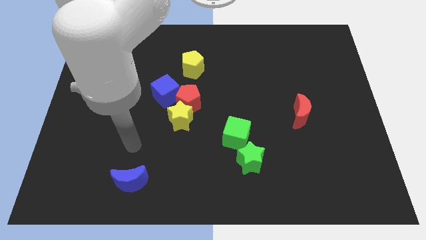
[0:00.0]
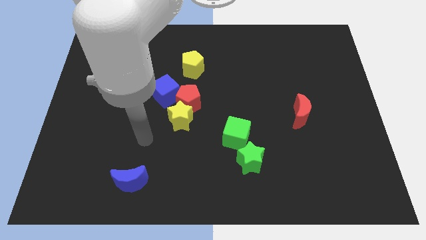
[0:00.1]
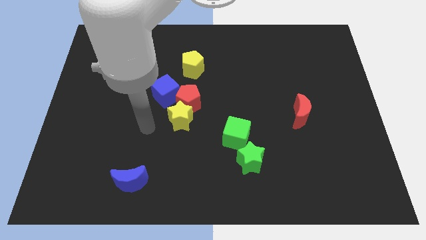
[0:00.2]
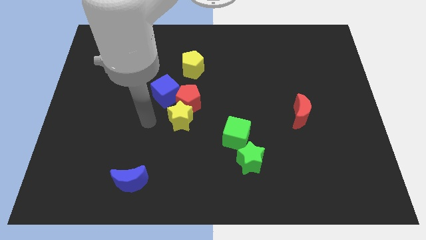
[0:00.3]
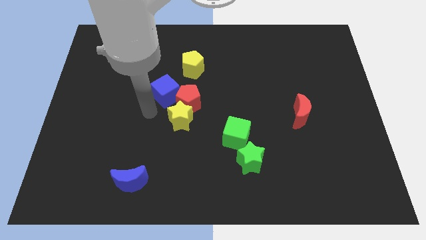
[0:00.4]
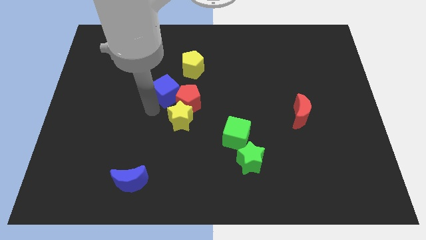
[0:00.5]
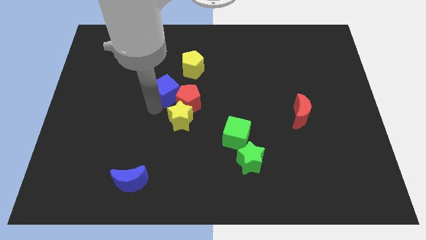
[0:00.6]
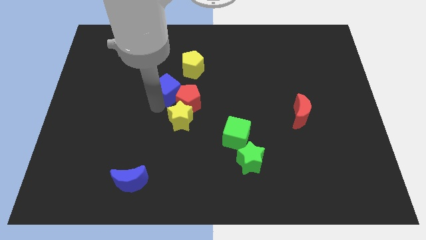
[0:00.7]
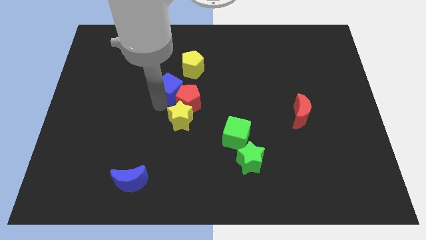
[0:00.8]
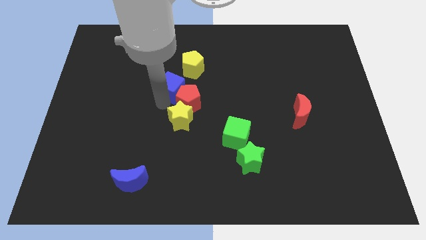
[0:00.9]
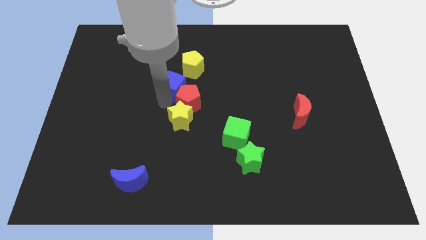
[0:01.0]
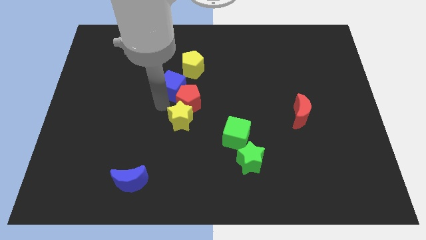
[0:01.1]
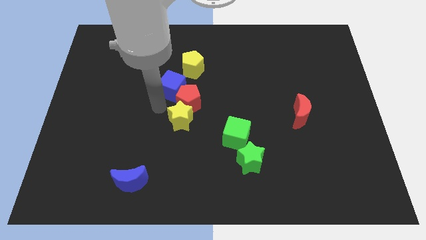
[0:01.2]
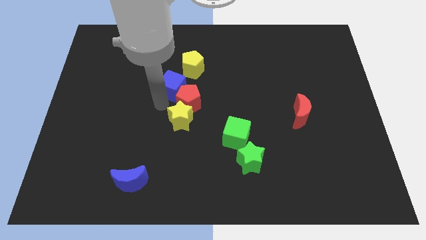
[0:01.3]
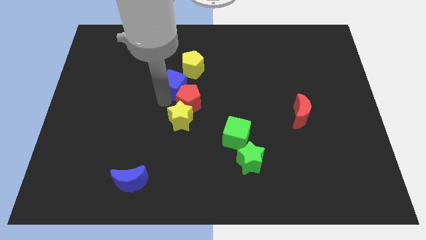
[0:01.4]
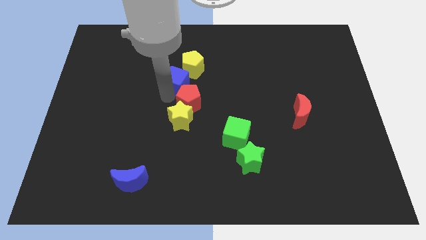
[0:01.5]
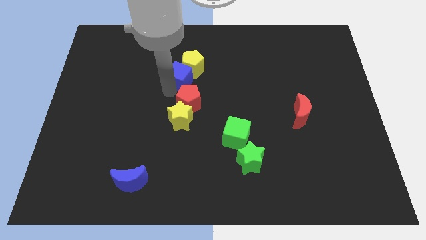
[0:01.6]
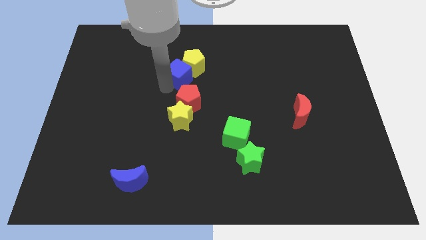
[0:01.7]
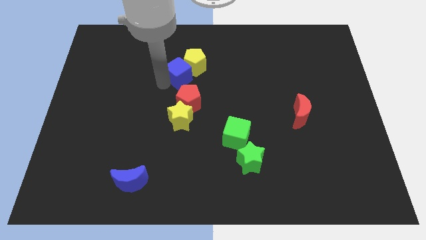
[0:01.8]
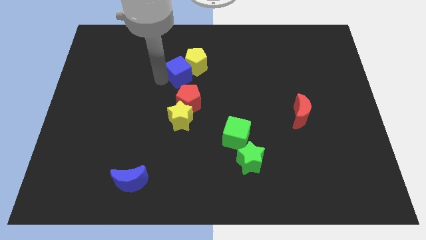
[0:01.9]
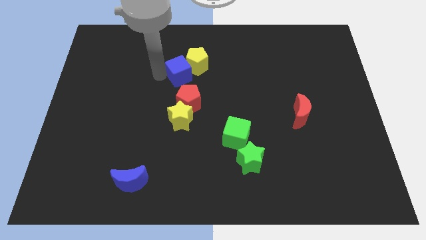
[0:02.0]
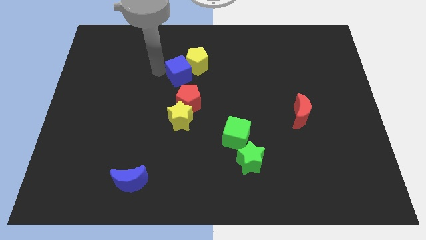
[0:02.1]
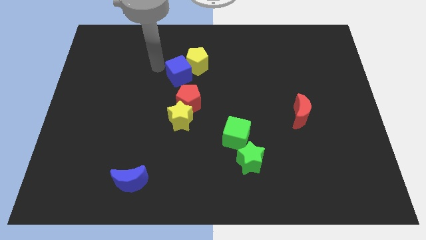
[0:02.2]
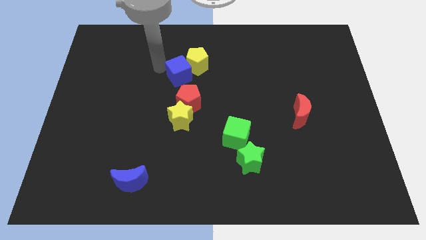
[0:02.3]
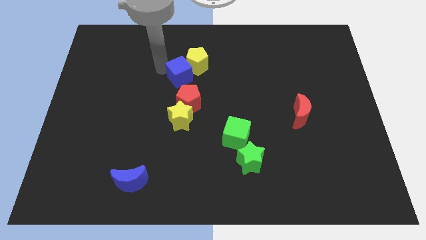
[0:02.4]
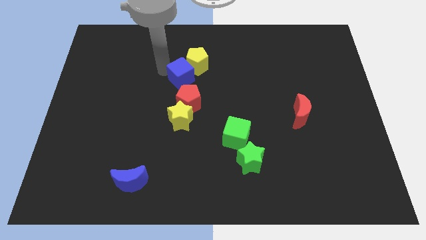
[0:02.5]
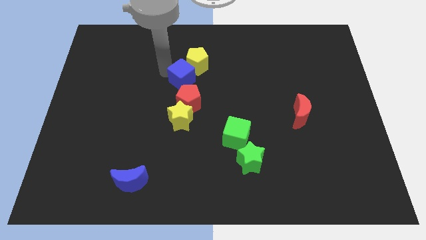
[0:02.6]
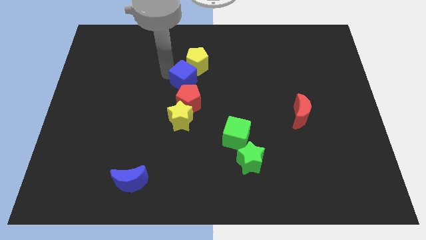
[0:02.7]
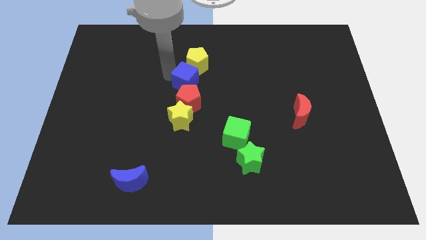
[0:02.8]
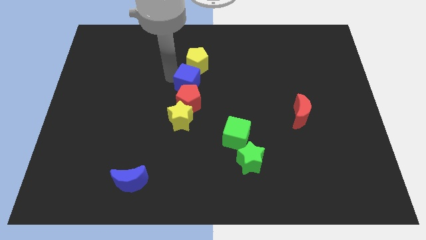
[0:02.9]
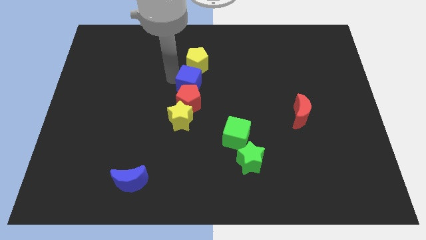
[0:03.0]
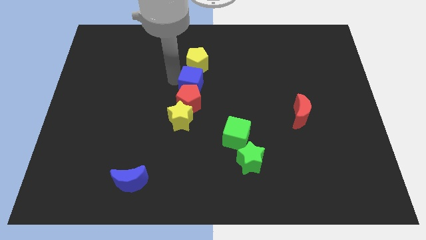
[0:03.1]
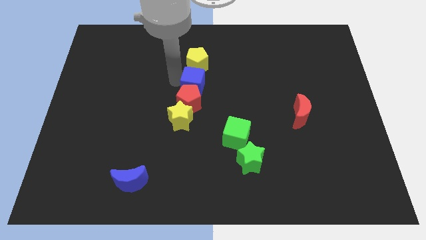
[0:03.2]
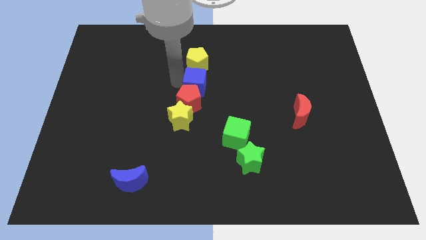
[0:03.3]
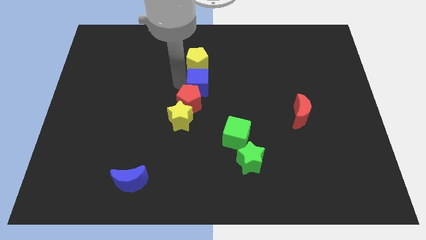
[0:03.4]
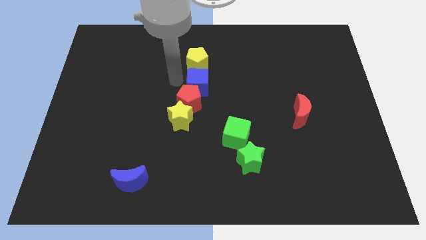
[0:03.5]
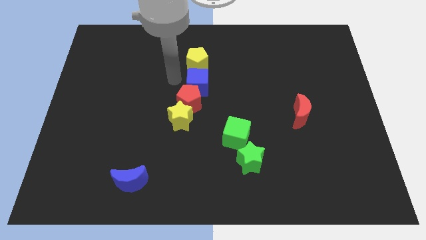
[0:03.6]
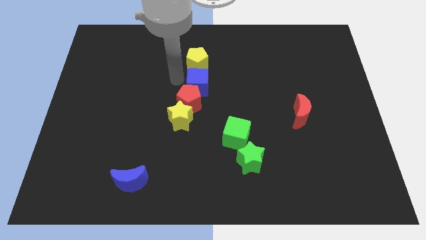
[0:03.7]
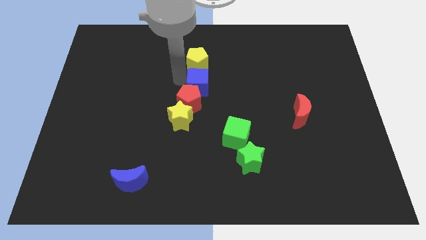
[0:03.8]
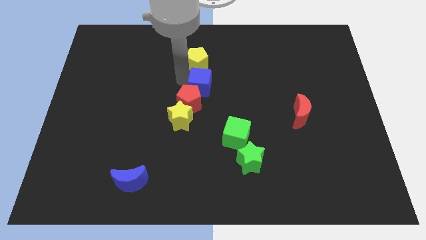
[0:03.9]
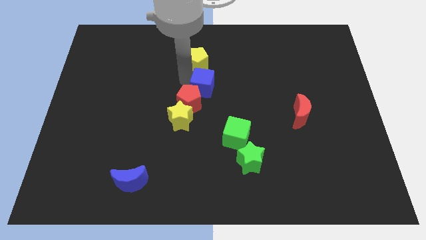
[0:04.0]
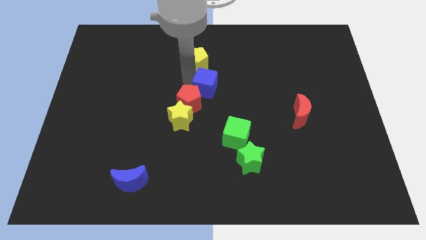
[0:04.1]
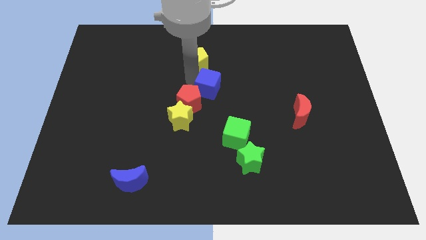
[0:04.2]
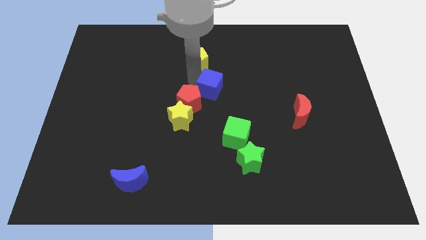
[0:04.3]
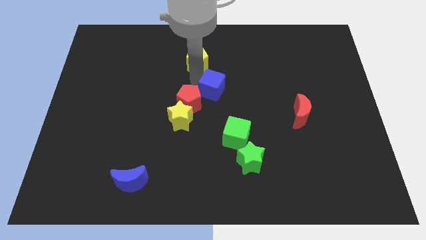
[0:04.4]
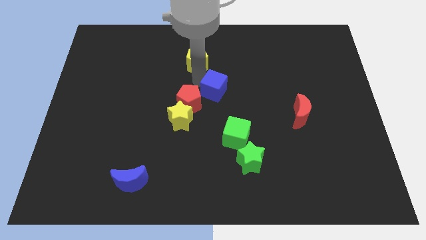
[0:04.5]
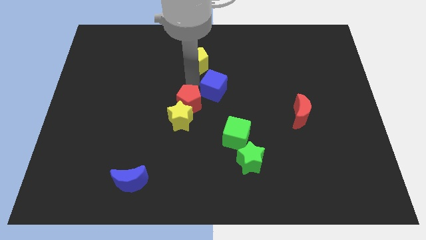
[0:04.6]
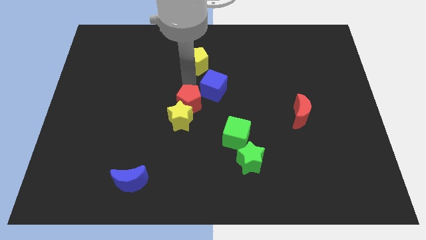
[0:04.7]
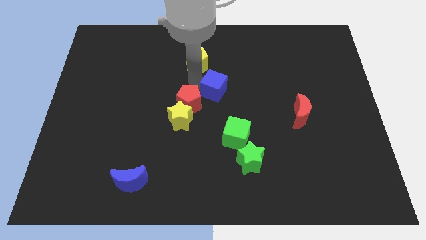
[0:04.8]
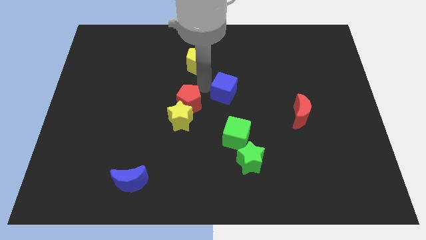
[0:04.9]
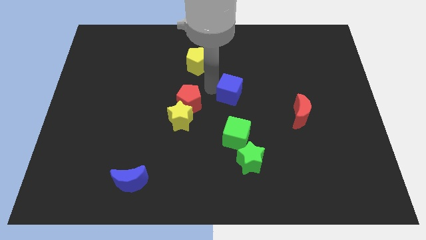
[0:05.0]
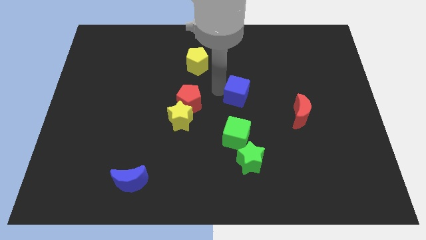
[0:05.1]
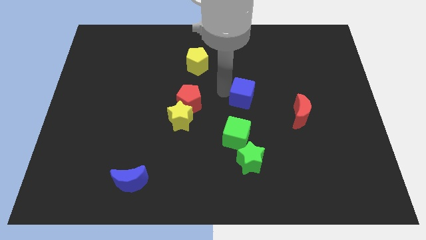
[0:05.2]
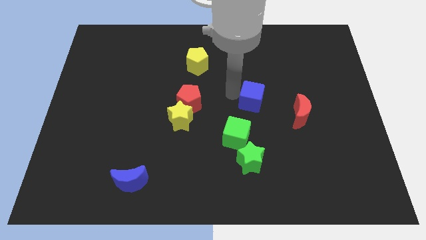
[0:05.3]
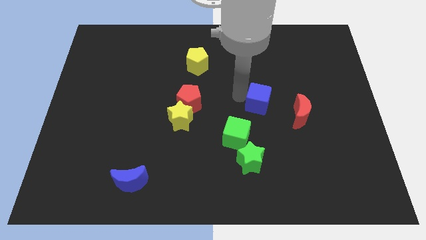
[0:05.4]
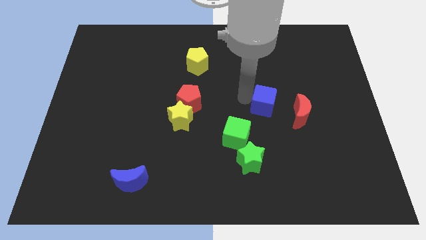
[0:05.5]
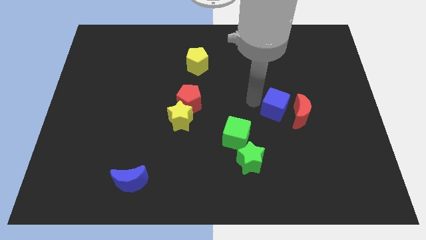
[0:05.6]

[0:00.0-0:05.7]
slide the blue cube close to the red moon

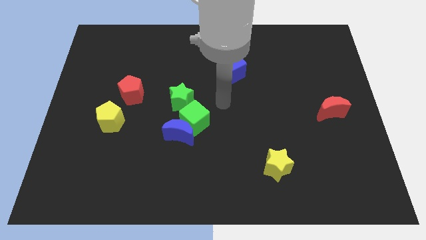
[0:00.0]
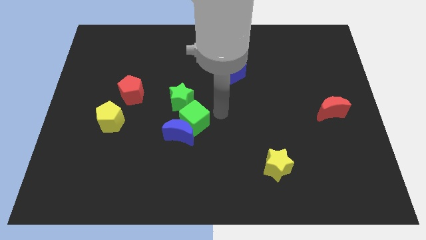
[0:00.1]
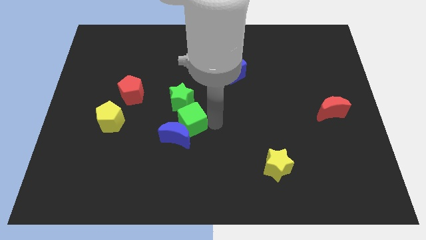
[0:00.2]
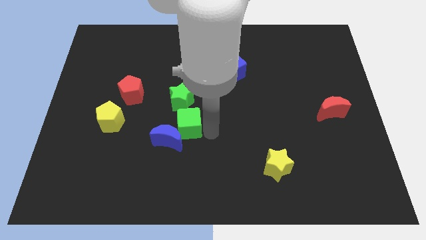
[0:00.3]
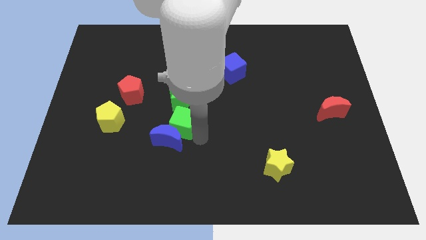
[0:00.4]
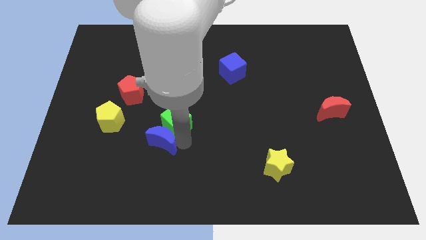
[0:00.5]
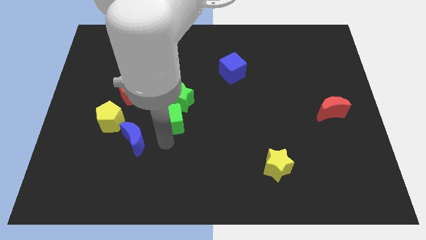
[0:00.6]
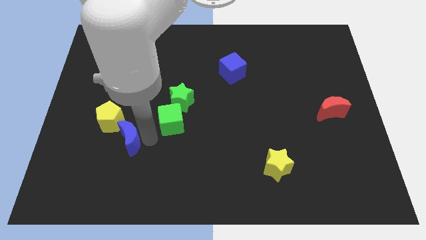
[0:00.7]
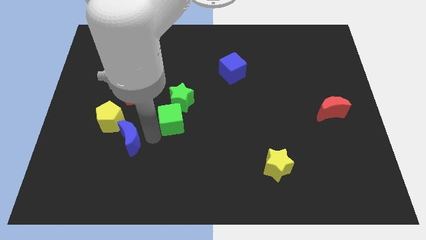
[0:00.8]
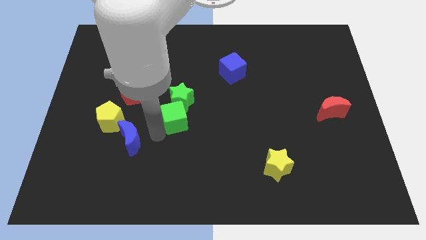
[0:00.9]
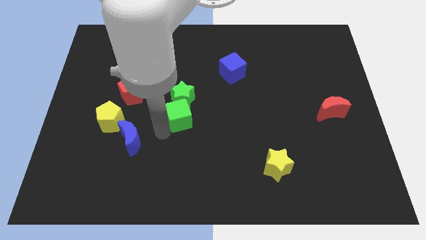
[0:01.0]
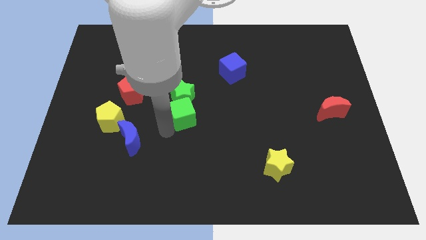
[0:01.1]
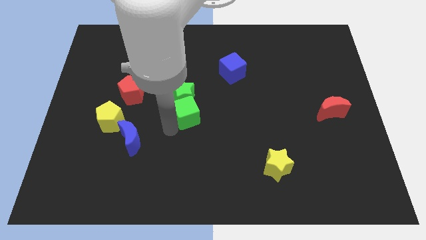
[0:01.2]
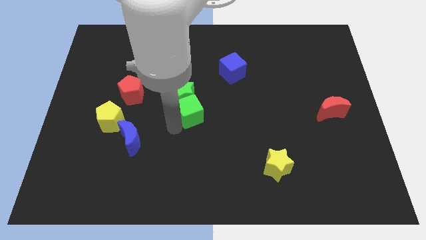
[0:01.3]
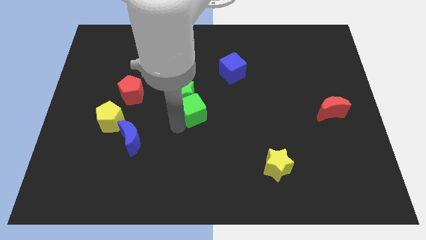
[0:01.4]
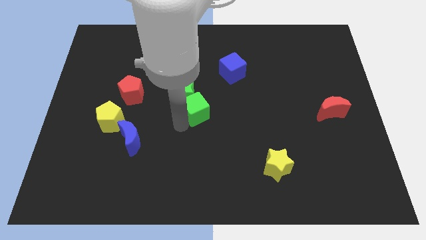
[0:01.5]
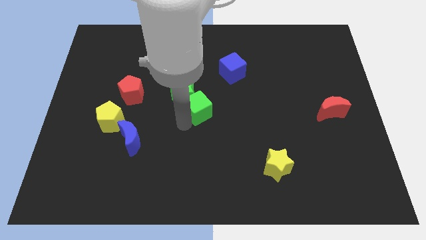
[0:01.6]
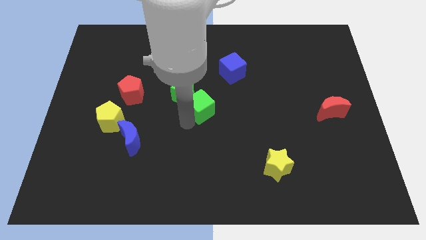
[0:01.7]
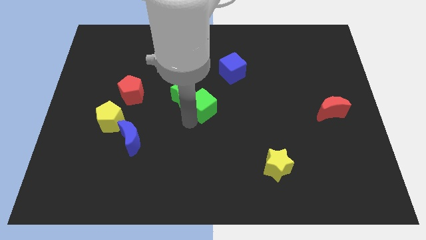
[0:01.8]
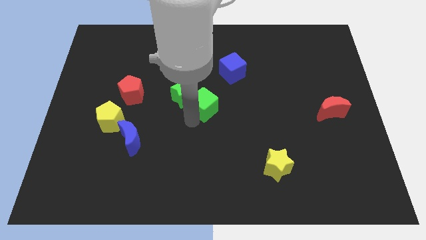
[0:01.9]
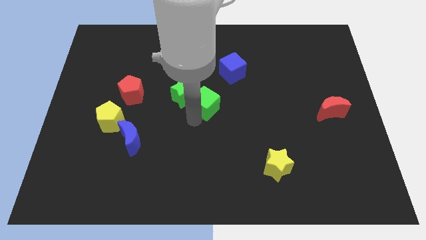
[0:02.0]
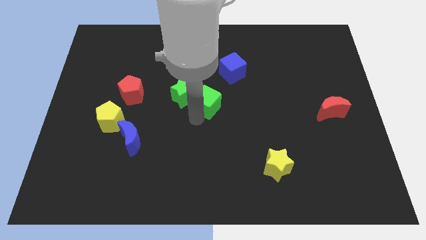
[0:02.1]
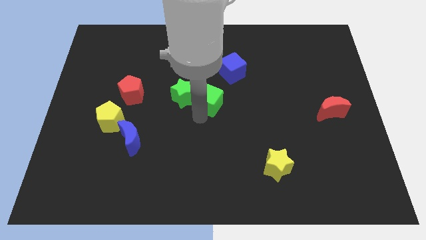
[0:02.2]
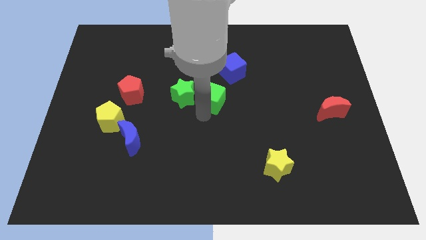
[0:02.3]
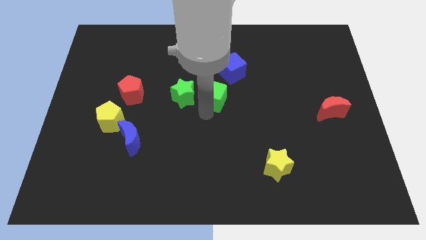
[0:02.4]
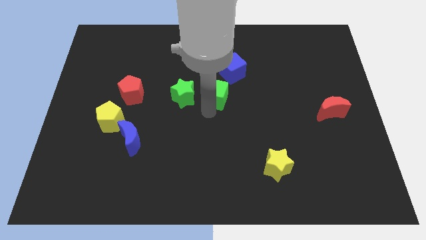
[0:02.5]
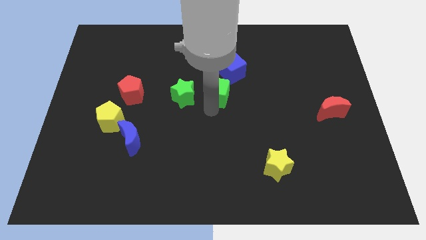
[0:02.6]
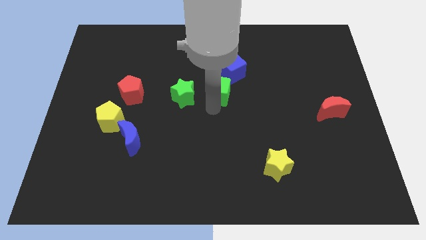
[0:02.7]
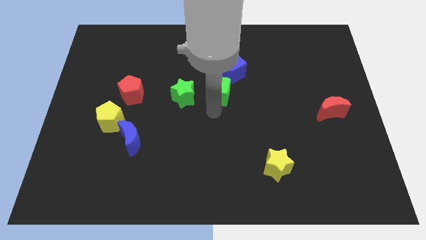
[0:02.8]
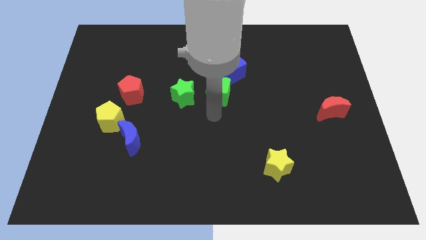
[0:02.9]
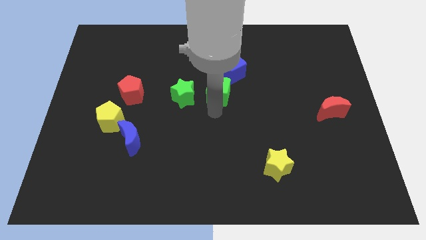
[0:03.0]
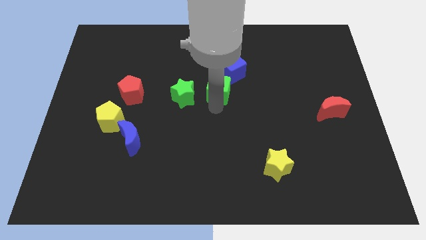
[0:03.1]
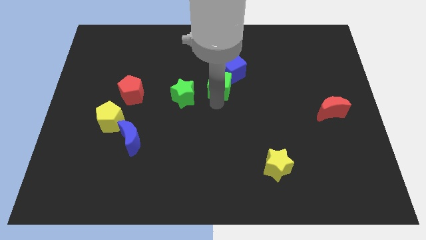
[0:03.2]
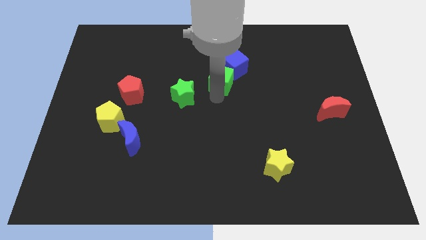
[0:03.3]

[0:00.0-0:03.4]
move the green cube close to the blue cube
